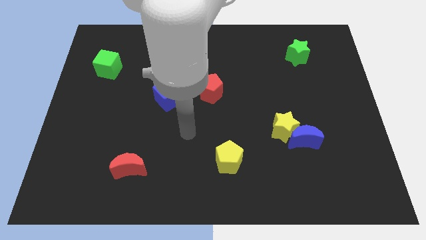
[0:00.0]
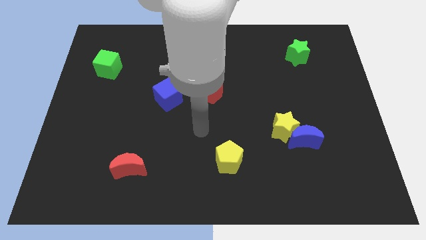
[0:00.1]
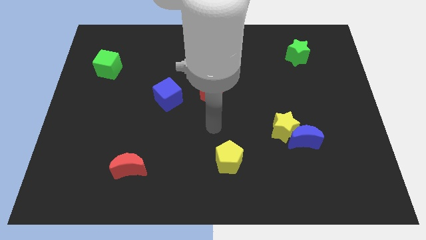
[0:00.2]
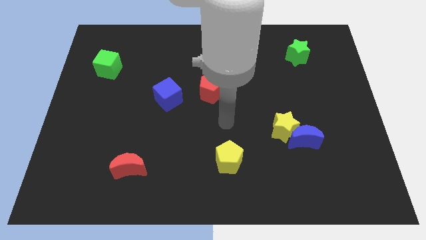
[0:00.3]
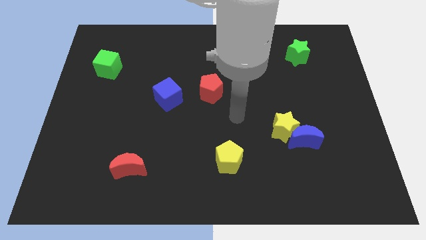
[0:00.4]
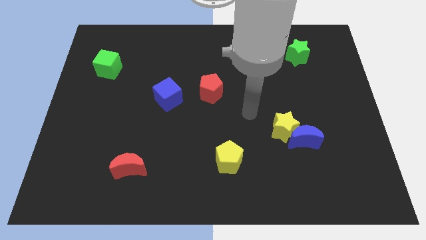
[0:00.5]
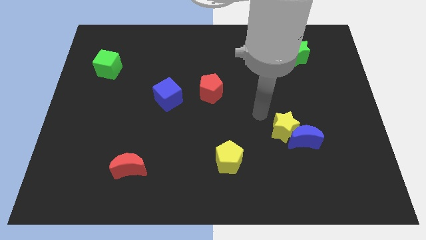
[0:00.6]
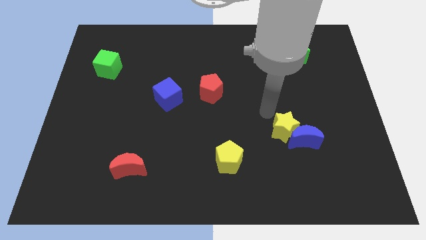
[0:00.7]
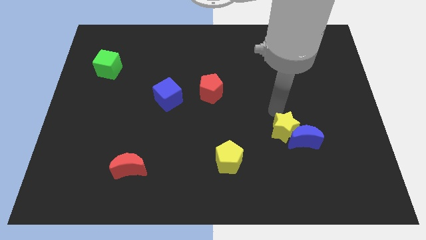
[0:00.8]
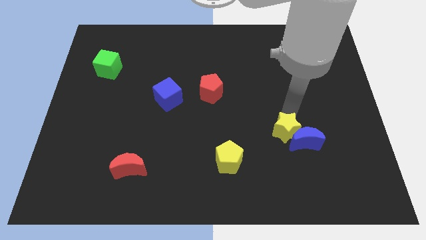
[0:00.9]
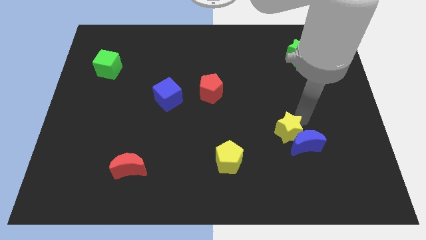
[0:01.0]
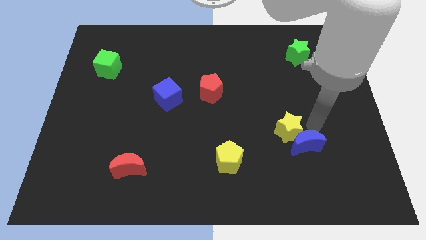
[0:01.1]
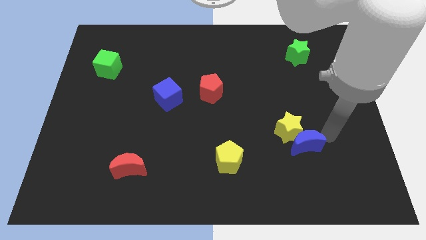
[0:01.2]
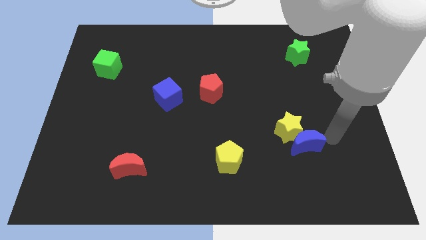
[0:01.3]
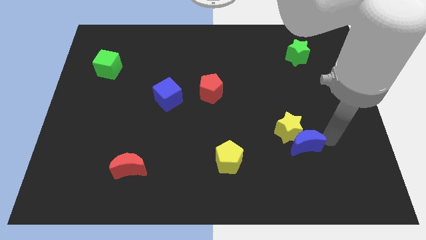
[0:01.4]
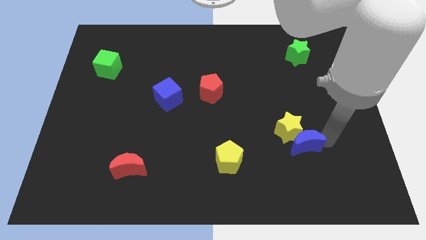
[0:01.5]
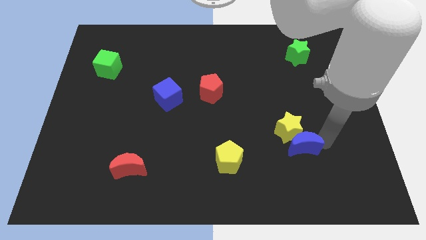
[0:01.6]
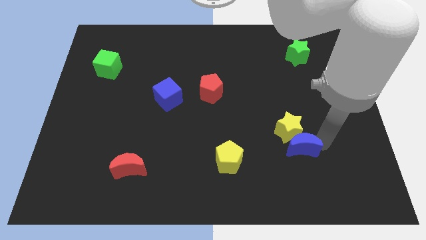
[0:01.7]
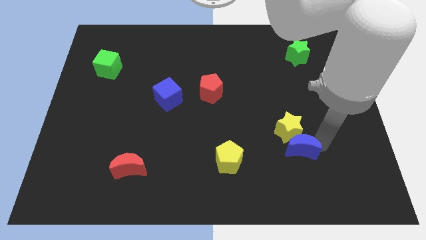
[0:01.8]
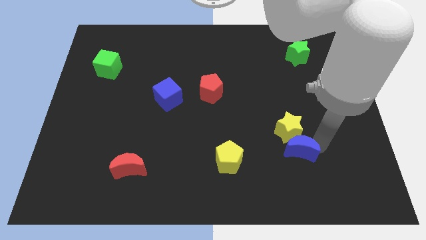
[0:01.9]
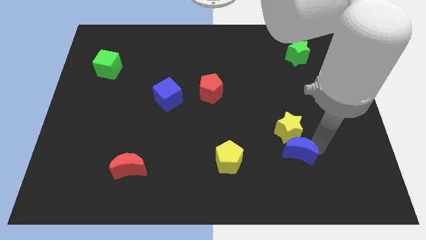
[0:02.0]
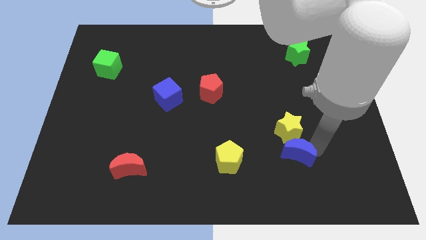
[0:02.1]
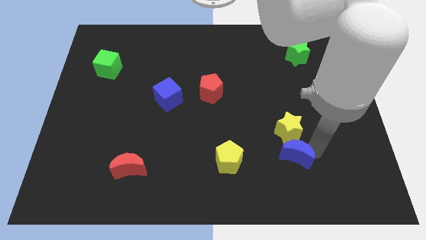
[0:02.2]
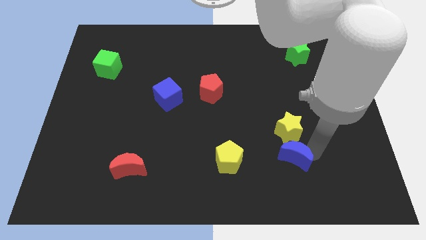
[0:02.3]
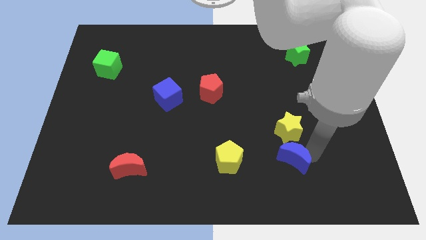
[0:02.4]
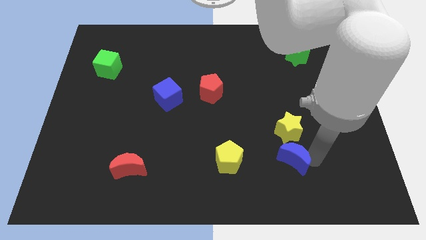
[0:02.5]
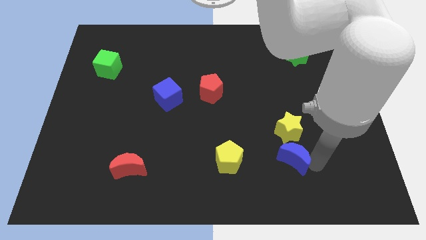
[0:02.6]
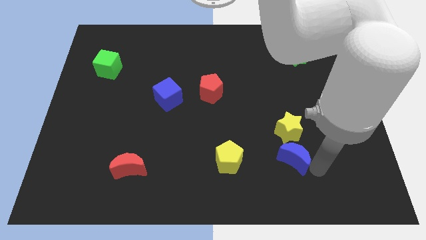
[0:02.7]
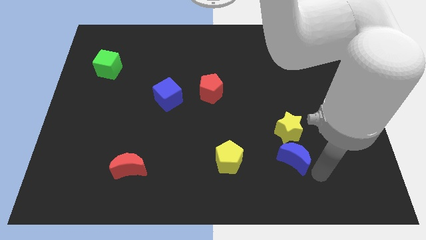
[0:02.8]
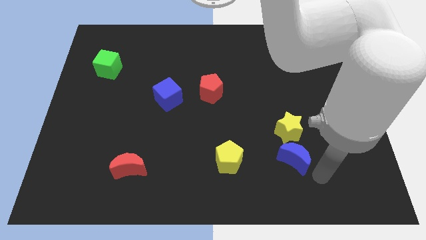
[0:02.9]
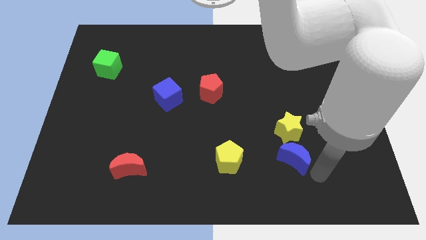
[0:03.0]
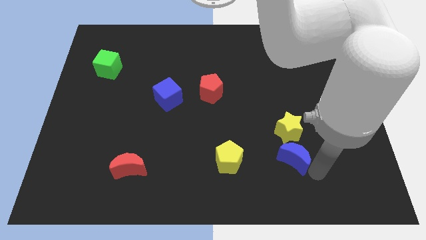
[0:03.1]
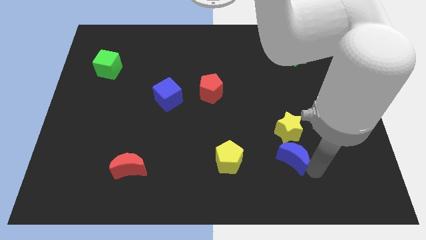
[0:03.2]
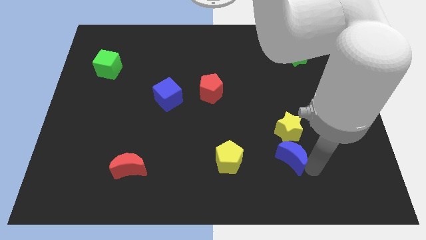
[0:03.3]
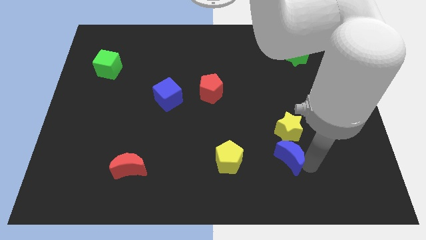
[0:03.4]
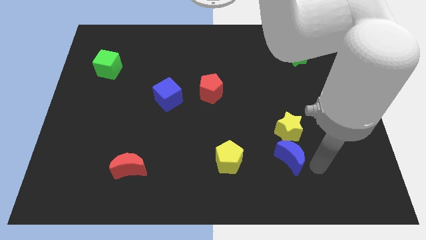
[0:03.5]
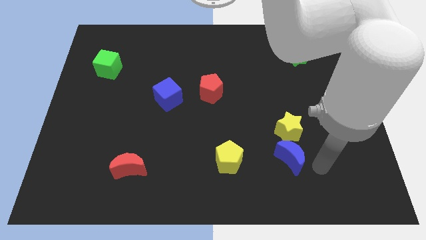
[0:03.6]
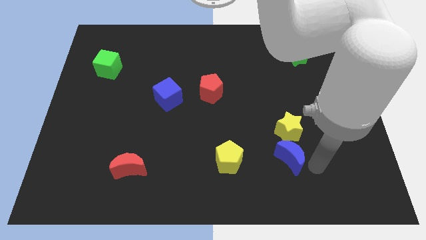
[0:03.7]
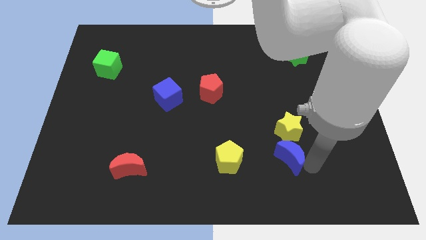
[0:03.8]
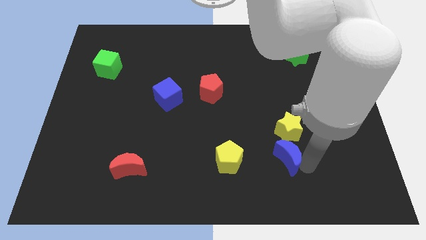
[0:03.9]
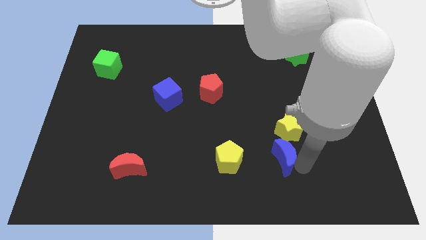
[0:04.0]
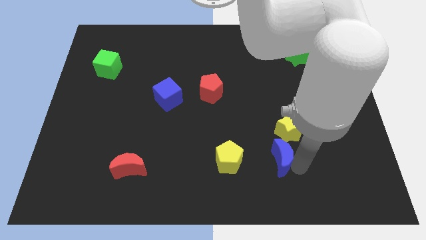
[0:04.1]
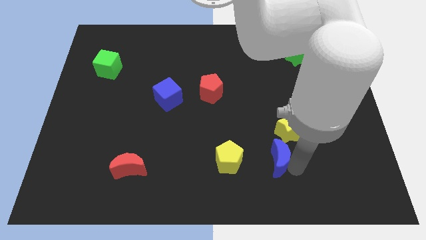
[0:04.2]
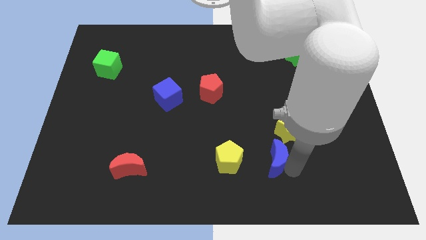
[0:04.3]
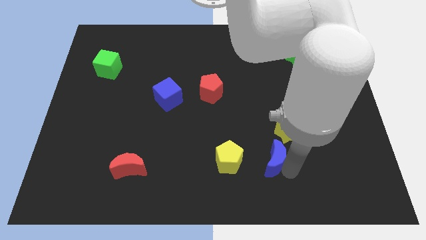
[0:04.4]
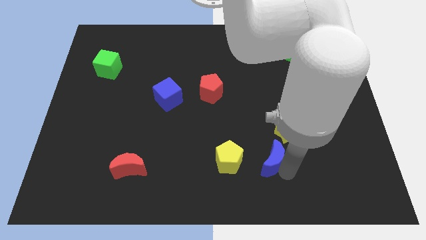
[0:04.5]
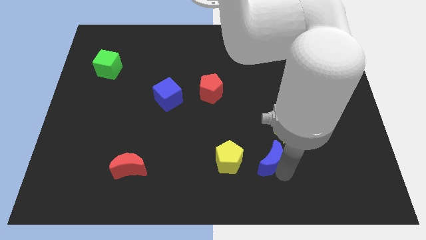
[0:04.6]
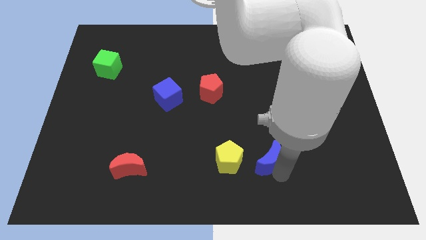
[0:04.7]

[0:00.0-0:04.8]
slightly slide the blue moon left

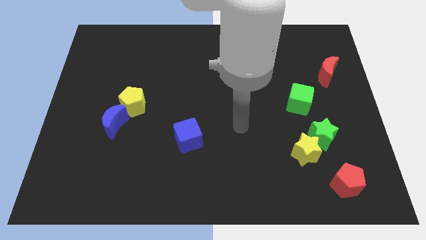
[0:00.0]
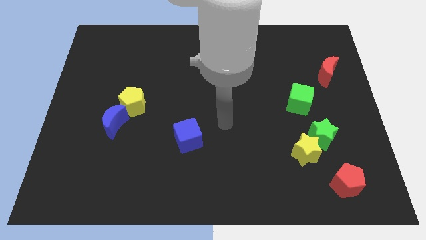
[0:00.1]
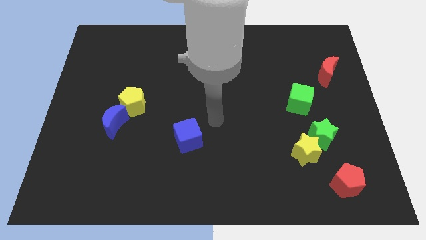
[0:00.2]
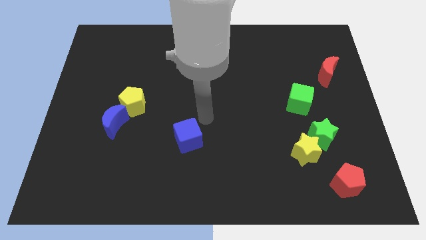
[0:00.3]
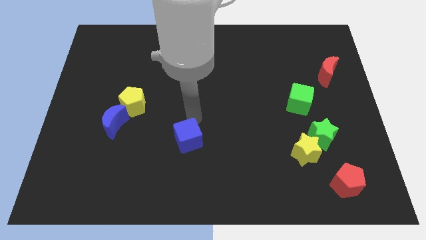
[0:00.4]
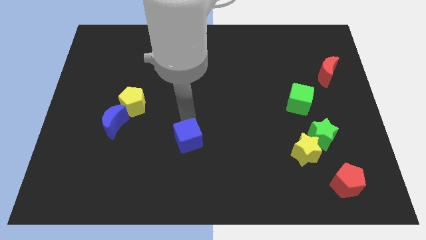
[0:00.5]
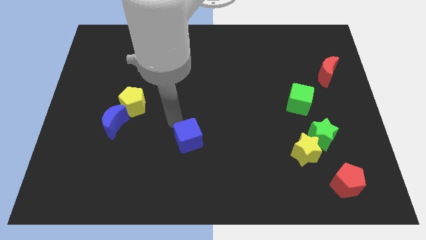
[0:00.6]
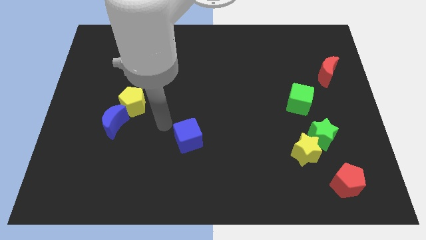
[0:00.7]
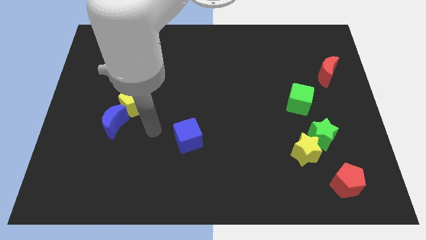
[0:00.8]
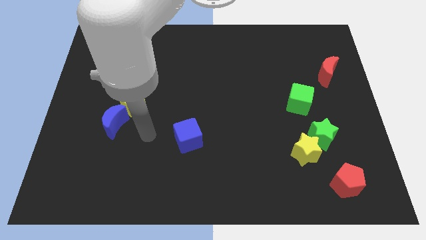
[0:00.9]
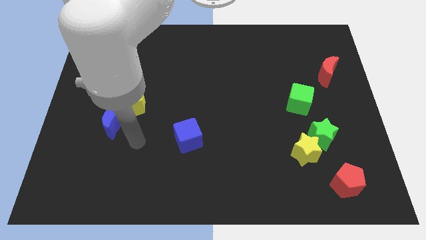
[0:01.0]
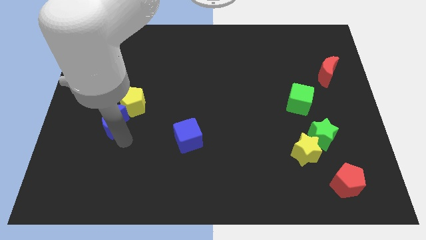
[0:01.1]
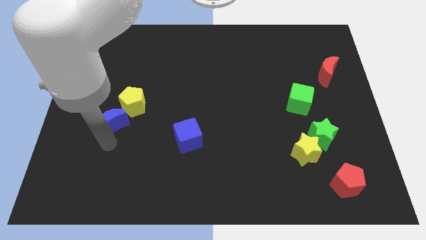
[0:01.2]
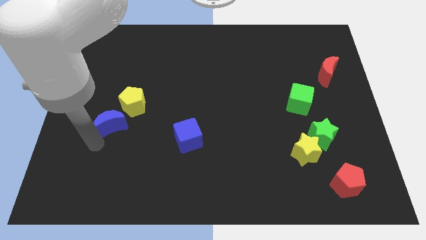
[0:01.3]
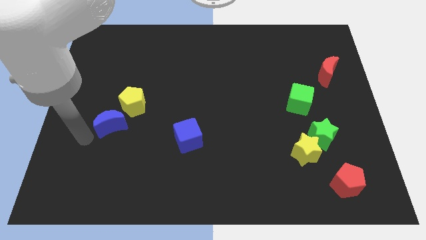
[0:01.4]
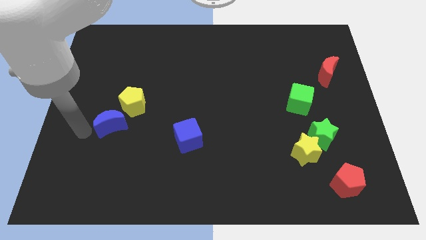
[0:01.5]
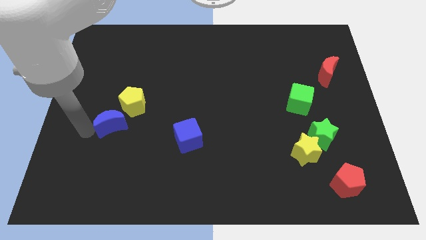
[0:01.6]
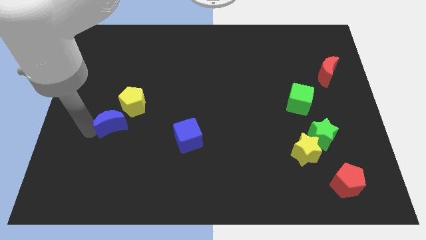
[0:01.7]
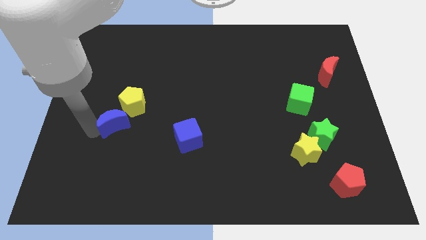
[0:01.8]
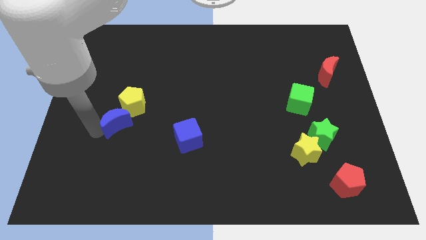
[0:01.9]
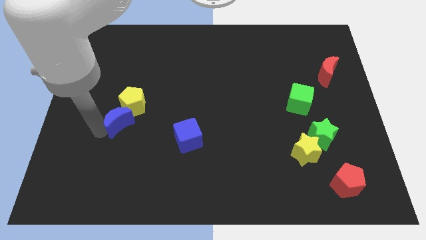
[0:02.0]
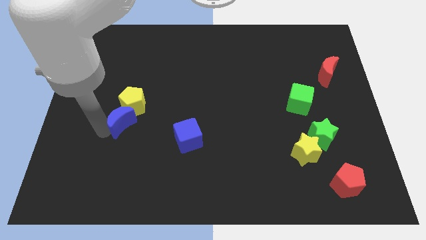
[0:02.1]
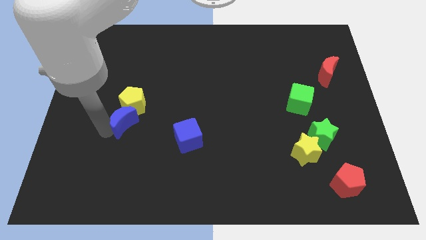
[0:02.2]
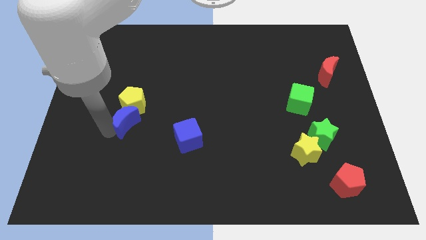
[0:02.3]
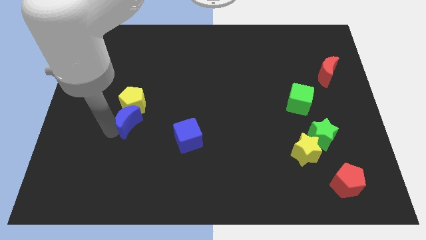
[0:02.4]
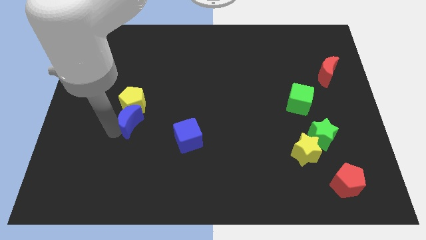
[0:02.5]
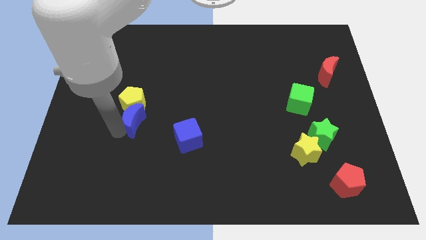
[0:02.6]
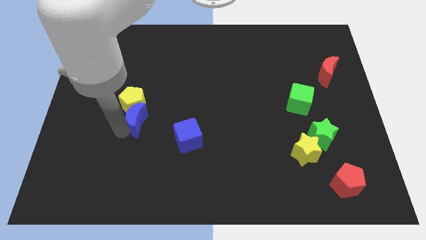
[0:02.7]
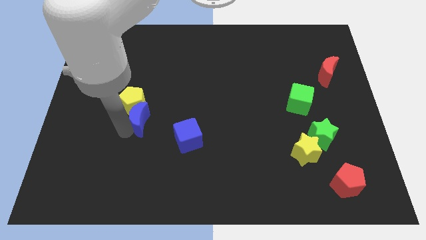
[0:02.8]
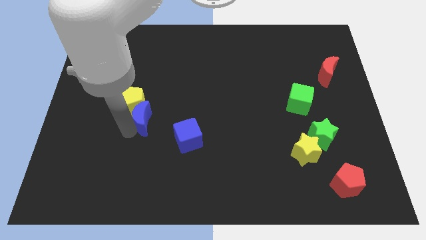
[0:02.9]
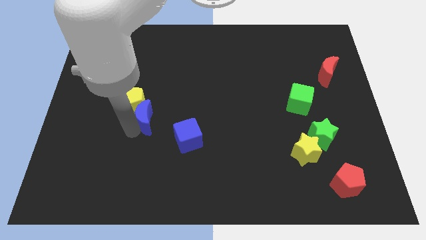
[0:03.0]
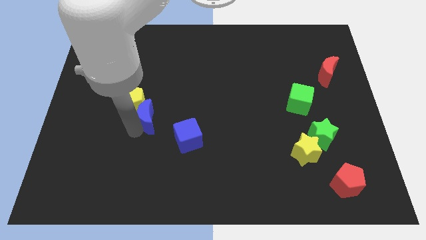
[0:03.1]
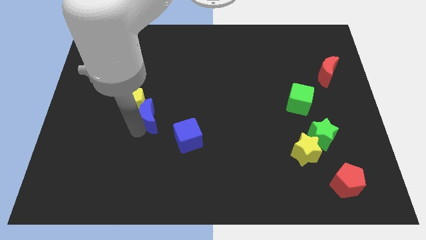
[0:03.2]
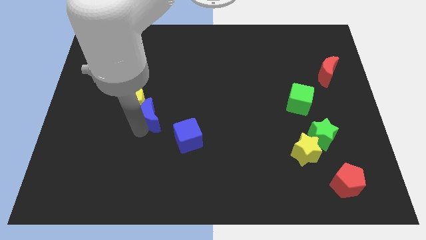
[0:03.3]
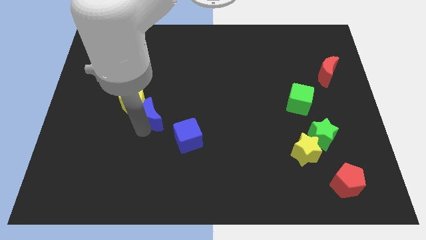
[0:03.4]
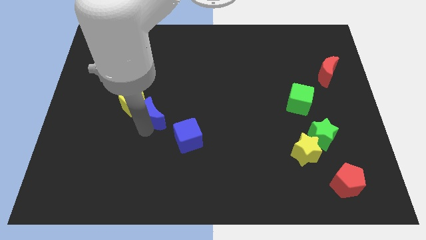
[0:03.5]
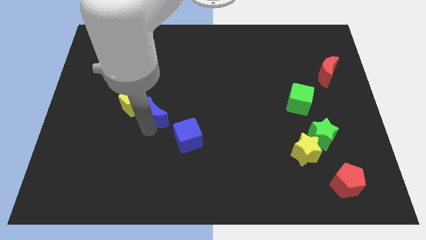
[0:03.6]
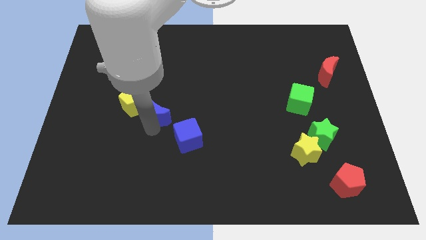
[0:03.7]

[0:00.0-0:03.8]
move the blue moon a bit up and right diagonally
